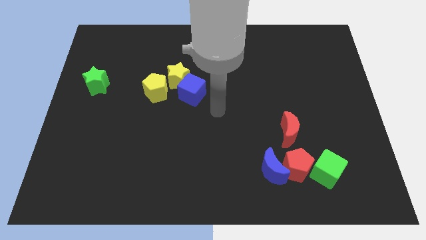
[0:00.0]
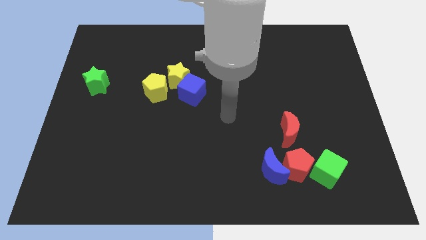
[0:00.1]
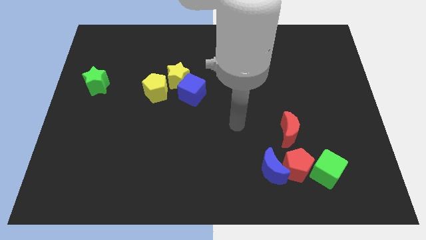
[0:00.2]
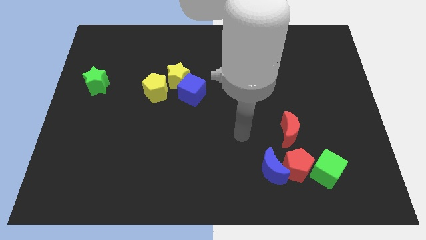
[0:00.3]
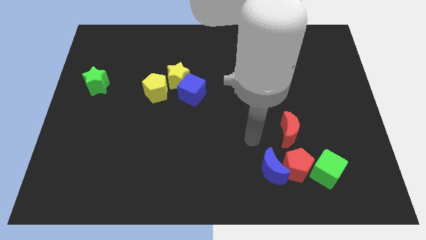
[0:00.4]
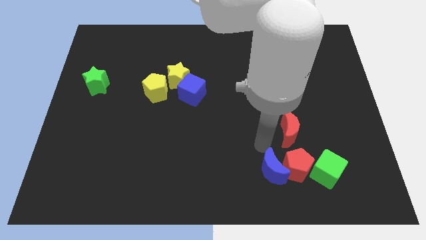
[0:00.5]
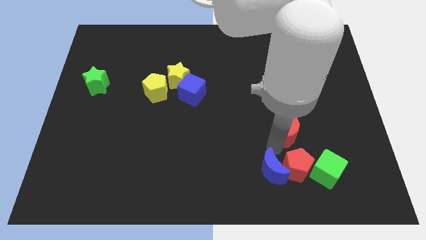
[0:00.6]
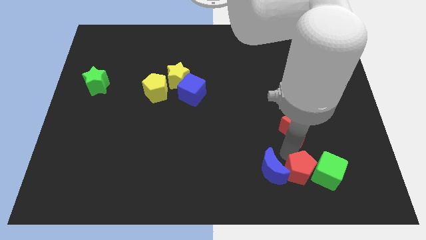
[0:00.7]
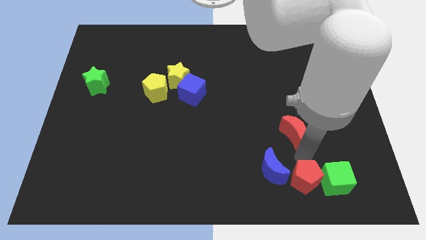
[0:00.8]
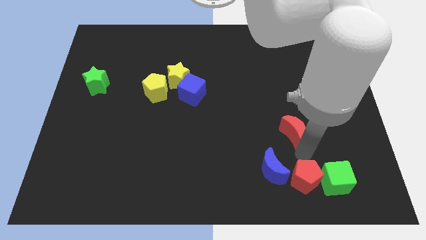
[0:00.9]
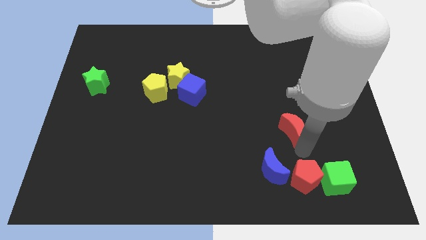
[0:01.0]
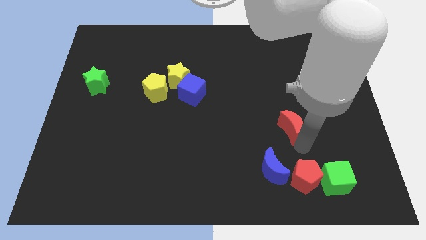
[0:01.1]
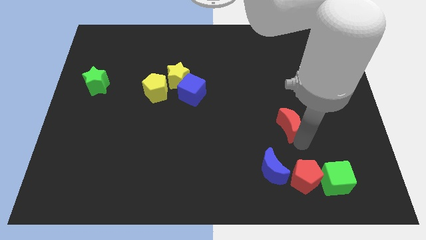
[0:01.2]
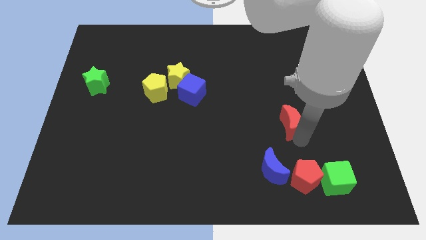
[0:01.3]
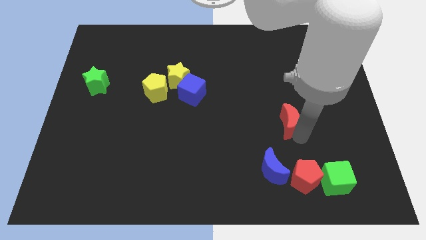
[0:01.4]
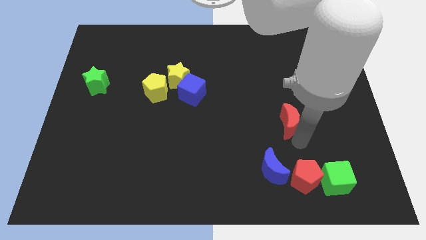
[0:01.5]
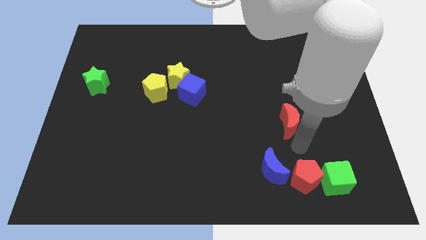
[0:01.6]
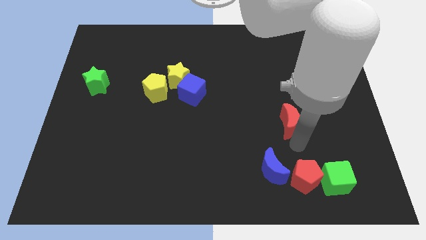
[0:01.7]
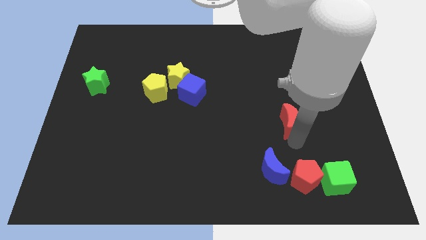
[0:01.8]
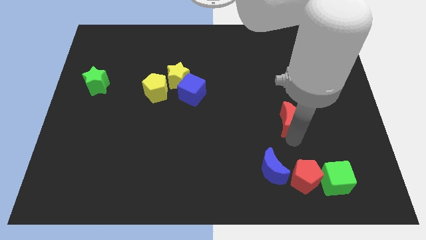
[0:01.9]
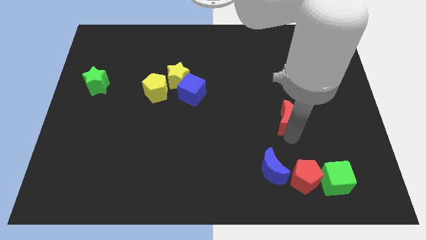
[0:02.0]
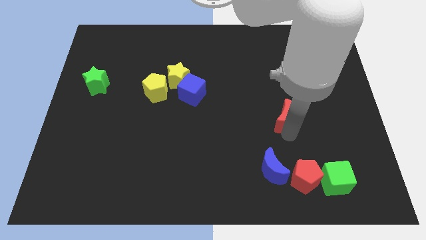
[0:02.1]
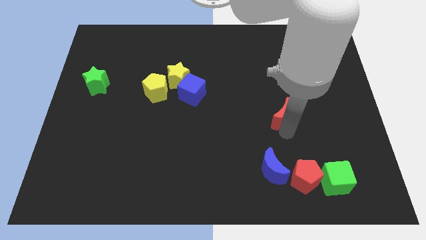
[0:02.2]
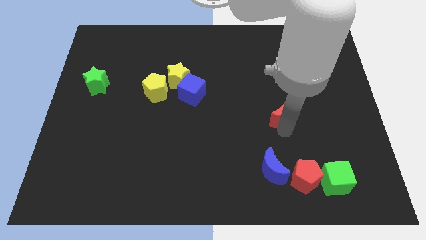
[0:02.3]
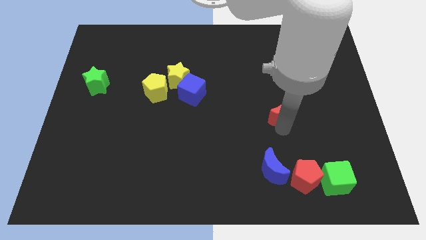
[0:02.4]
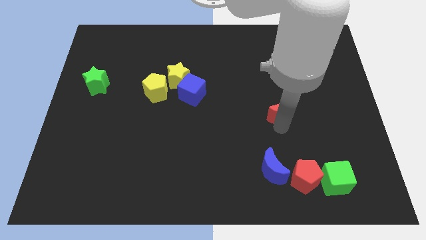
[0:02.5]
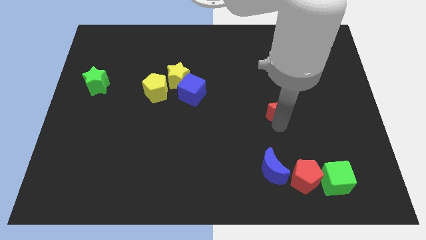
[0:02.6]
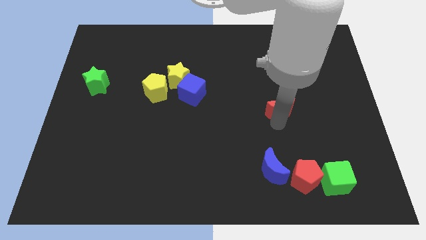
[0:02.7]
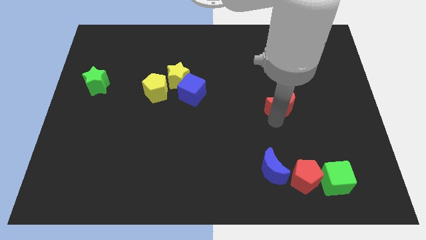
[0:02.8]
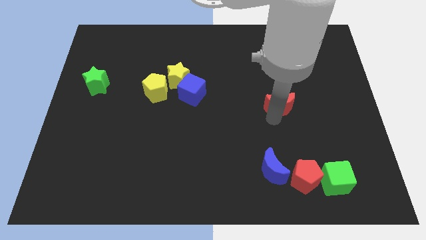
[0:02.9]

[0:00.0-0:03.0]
move the red moon somewhat upwards

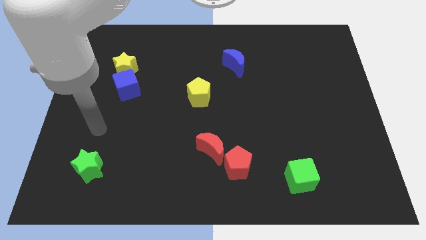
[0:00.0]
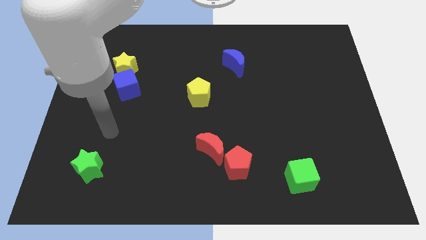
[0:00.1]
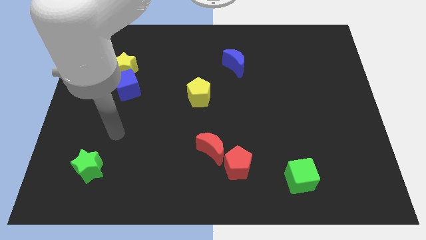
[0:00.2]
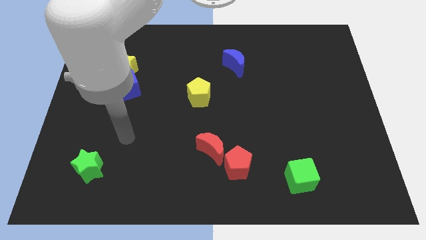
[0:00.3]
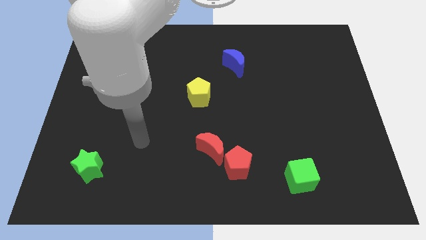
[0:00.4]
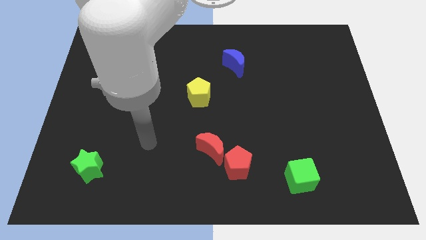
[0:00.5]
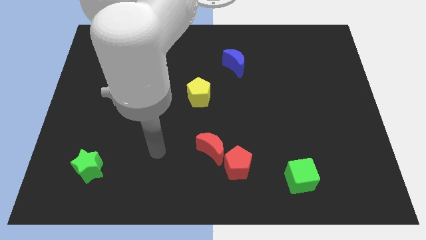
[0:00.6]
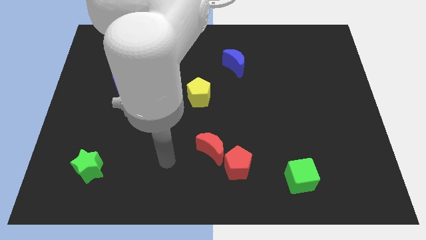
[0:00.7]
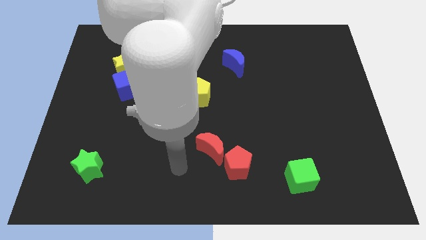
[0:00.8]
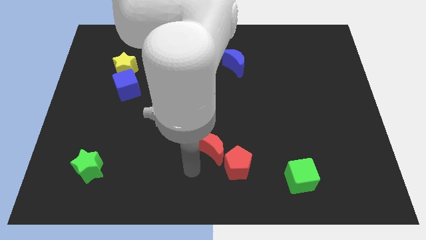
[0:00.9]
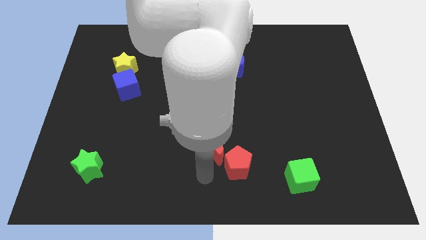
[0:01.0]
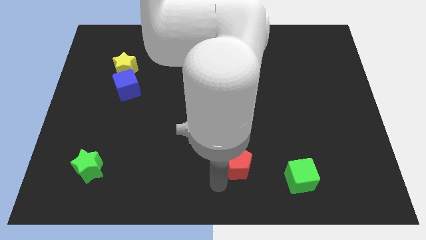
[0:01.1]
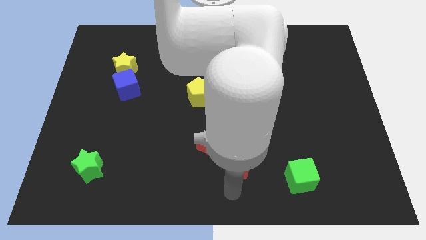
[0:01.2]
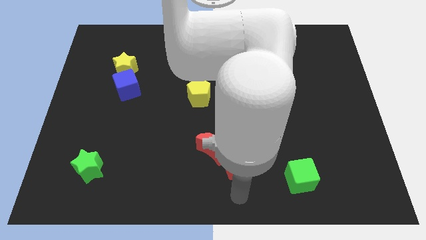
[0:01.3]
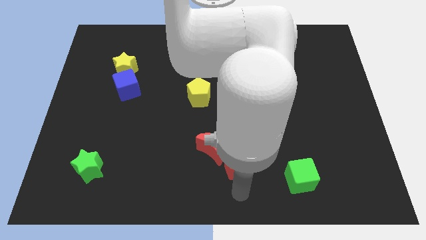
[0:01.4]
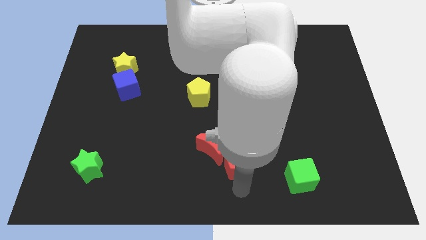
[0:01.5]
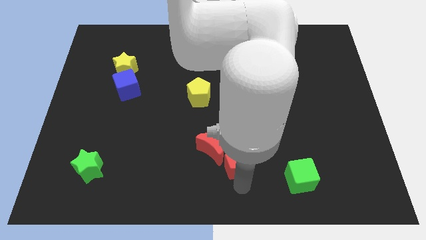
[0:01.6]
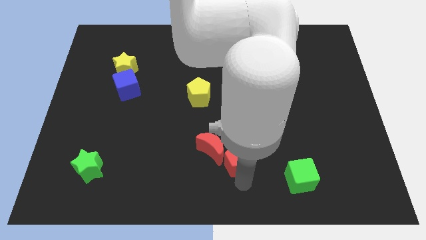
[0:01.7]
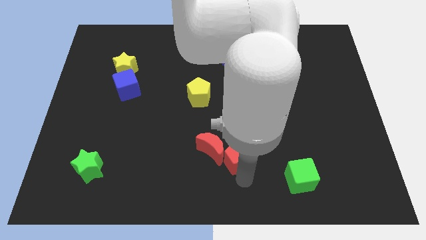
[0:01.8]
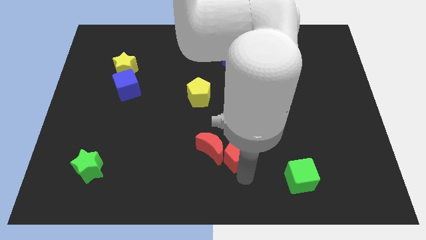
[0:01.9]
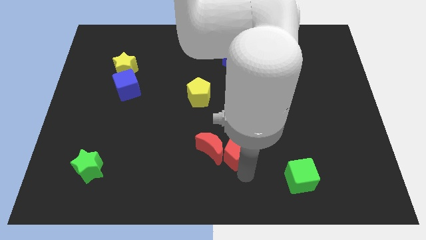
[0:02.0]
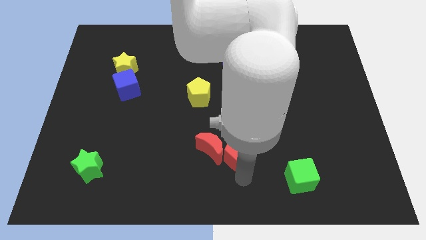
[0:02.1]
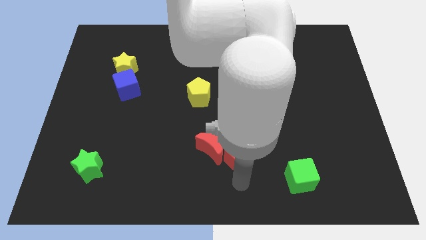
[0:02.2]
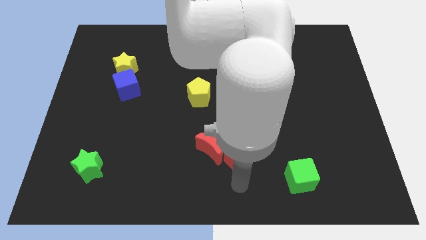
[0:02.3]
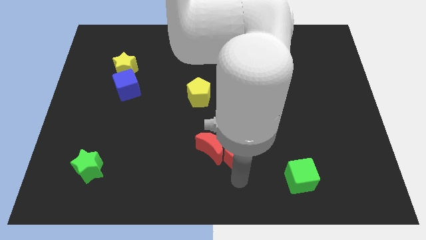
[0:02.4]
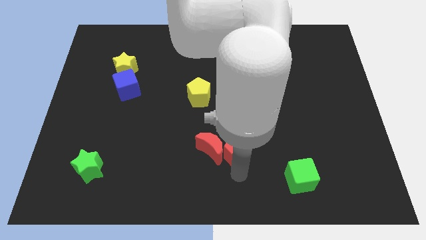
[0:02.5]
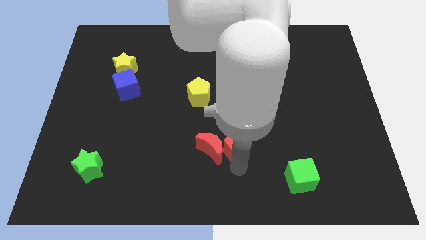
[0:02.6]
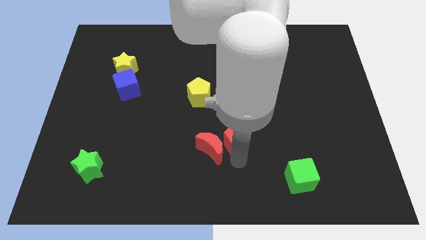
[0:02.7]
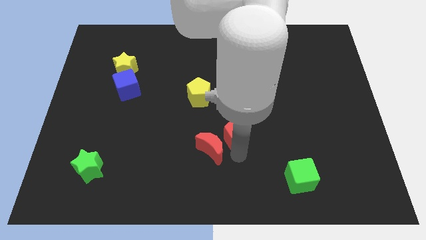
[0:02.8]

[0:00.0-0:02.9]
slide the red pentagon up a little

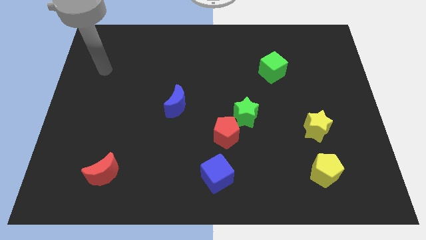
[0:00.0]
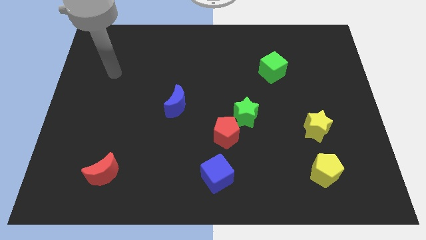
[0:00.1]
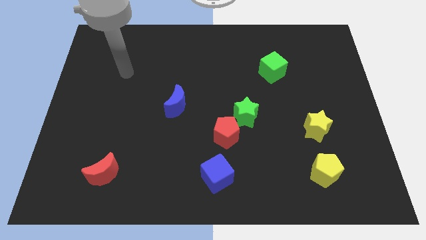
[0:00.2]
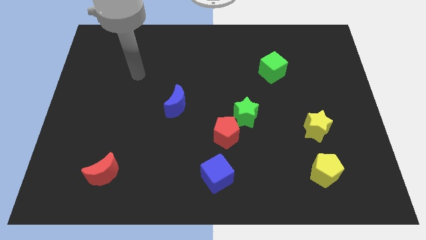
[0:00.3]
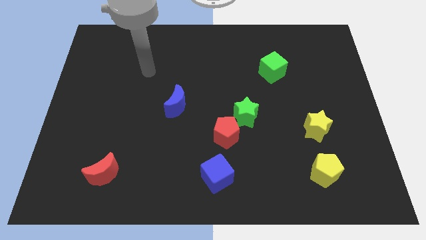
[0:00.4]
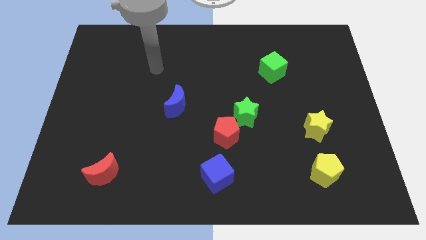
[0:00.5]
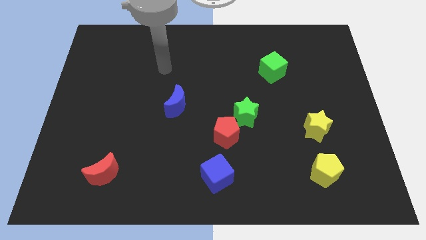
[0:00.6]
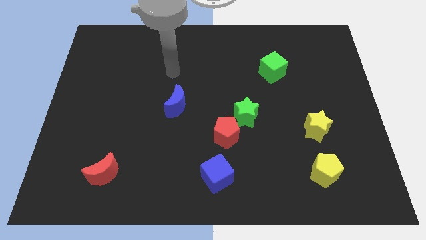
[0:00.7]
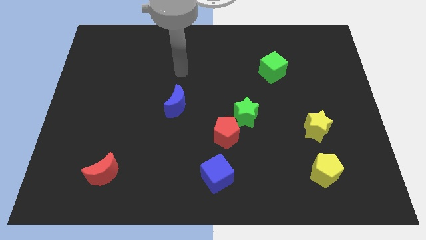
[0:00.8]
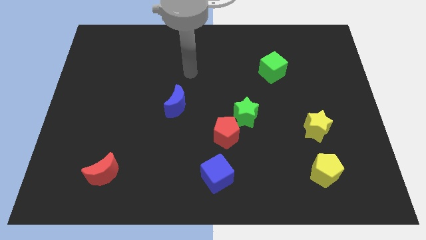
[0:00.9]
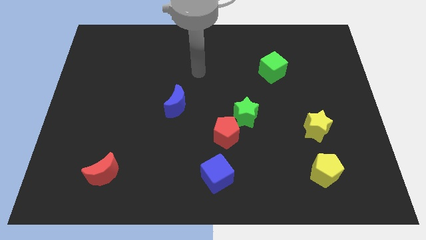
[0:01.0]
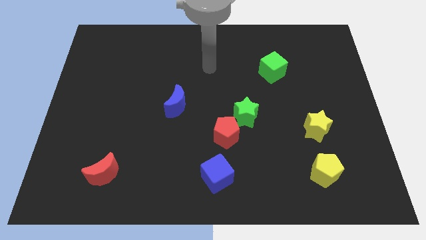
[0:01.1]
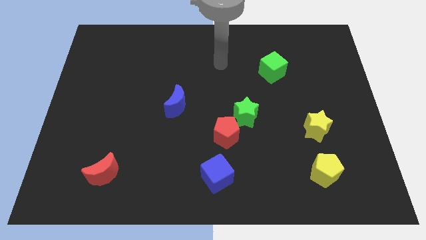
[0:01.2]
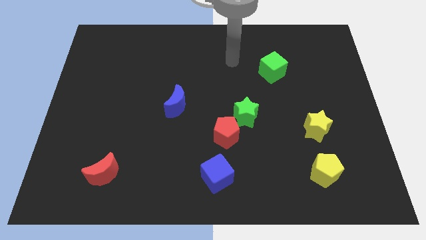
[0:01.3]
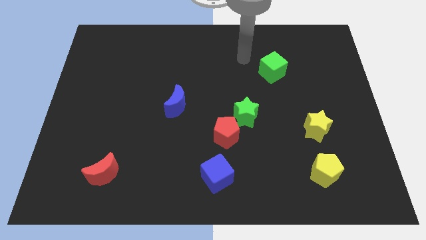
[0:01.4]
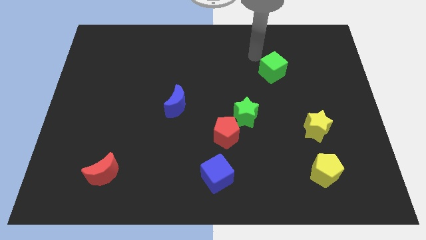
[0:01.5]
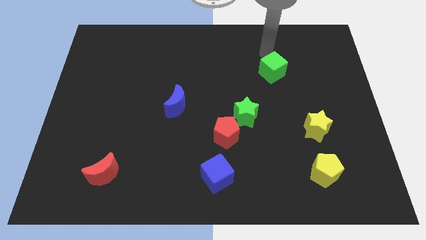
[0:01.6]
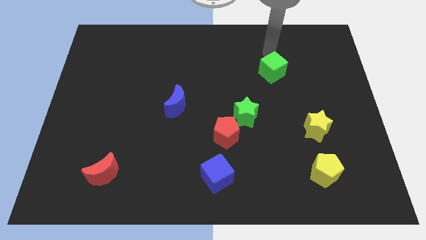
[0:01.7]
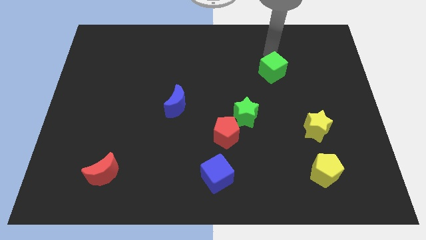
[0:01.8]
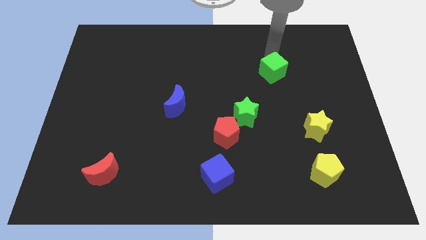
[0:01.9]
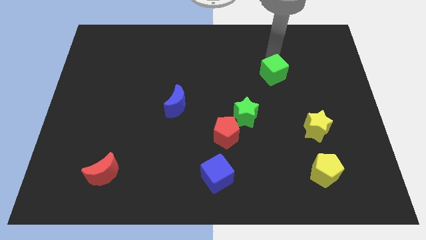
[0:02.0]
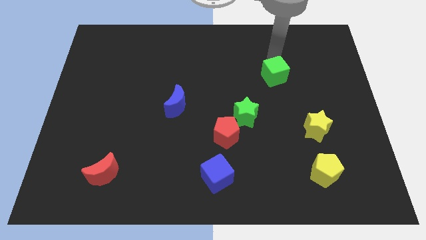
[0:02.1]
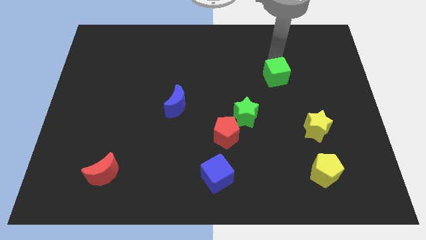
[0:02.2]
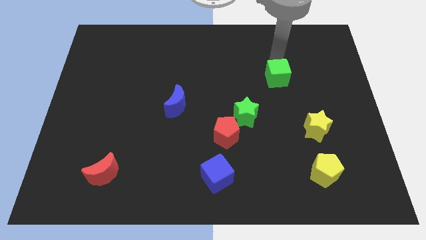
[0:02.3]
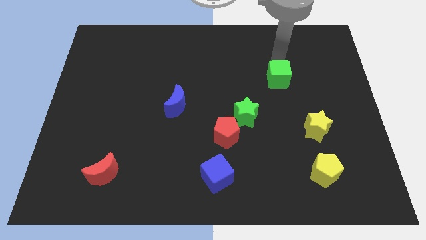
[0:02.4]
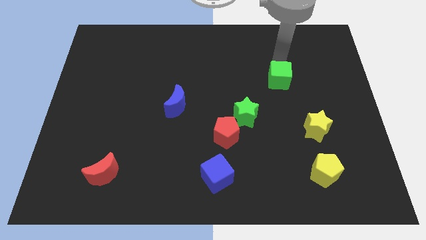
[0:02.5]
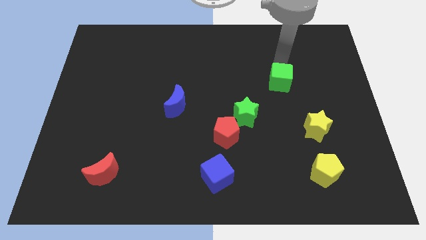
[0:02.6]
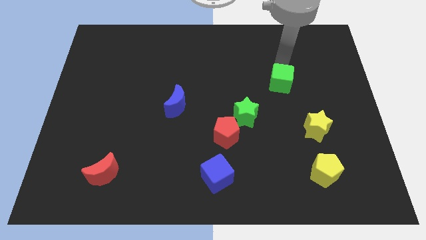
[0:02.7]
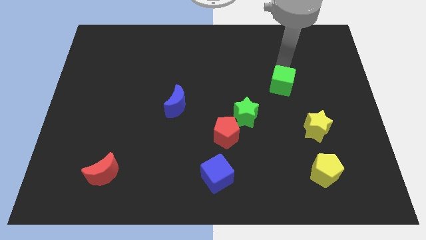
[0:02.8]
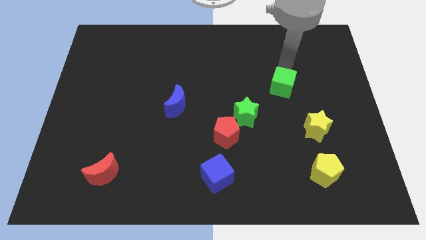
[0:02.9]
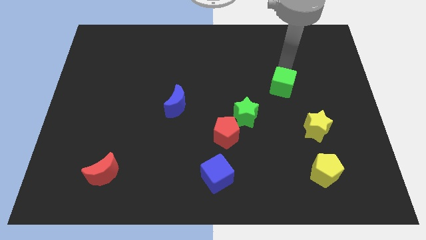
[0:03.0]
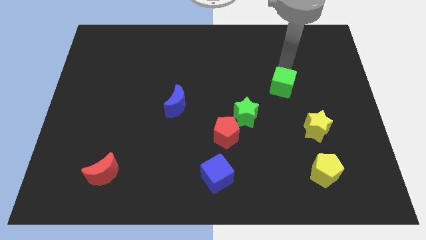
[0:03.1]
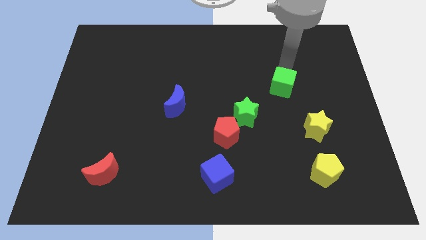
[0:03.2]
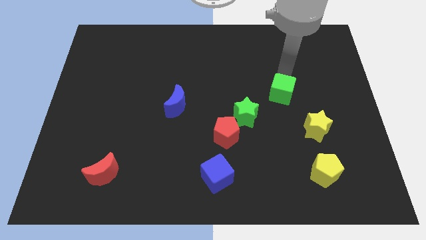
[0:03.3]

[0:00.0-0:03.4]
slide the green cube down somewhat
